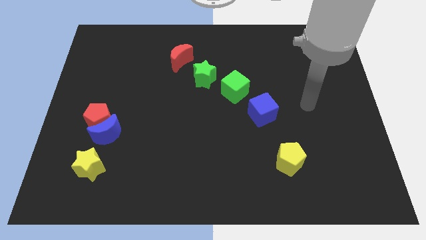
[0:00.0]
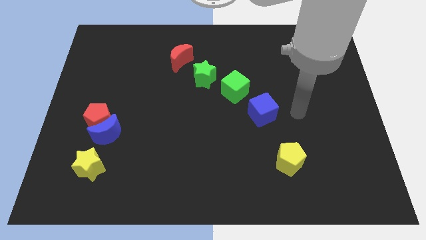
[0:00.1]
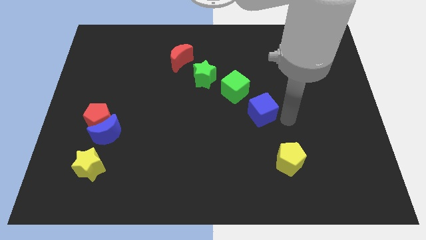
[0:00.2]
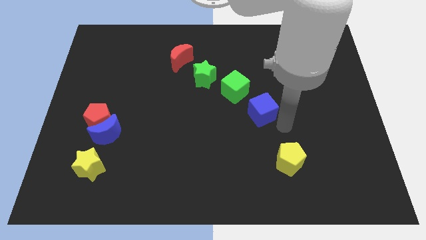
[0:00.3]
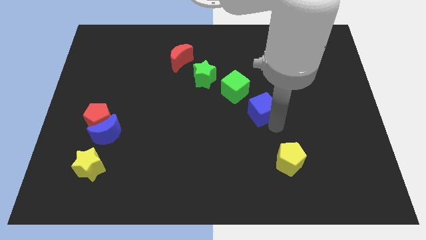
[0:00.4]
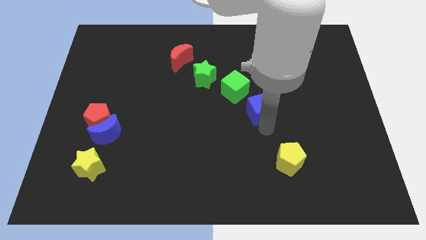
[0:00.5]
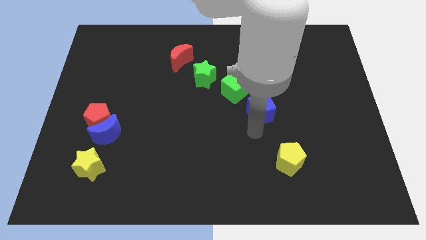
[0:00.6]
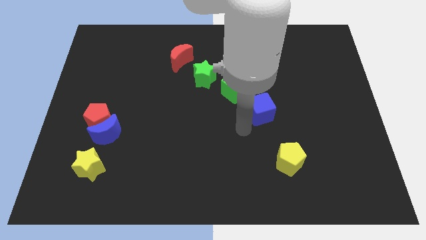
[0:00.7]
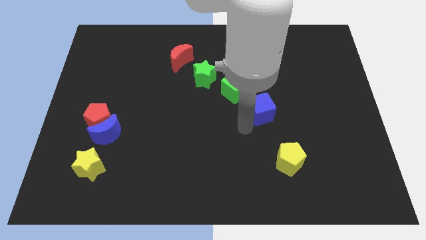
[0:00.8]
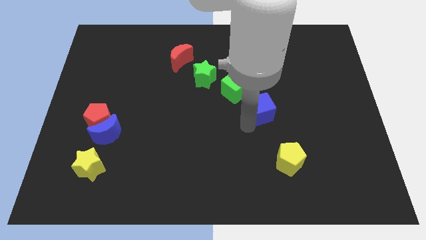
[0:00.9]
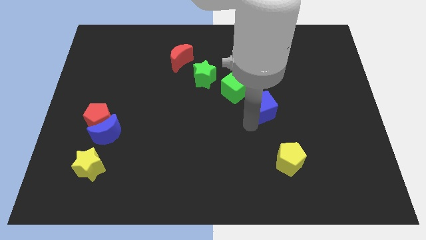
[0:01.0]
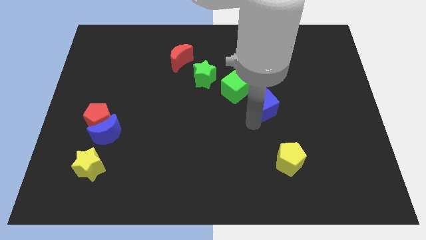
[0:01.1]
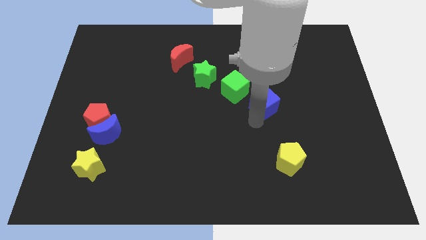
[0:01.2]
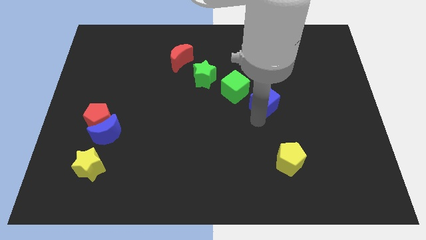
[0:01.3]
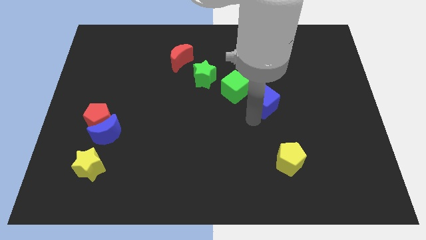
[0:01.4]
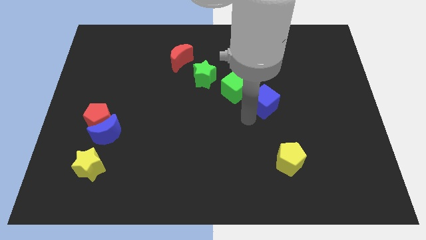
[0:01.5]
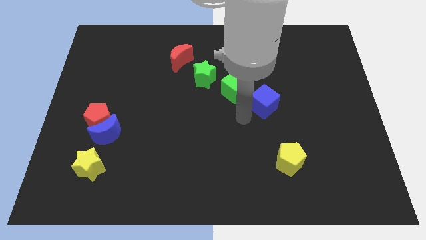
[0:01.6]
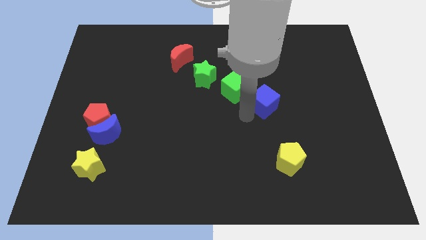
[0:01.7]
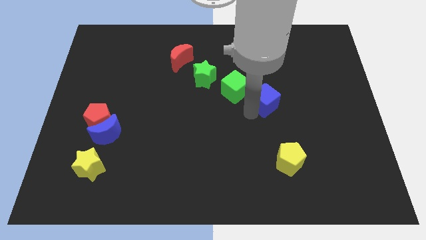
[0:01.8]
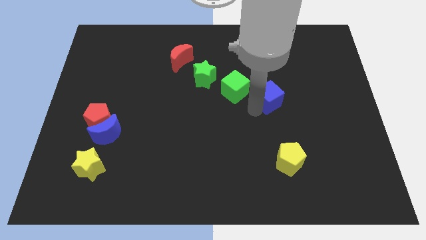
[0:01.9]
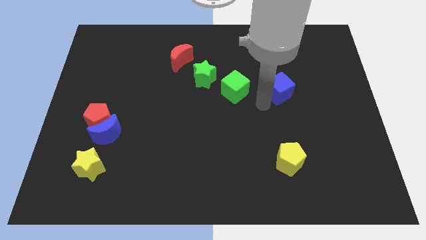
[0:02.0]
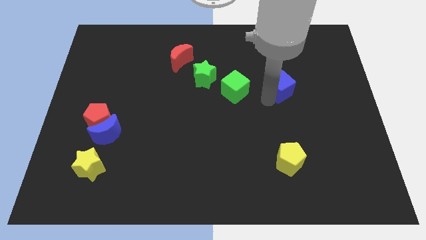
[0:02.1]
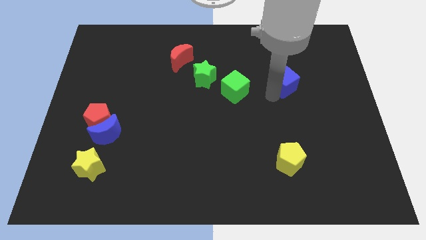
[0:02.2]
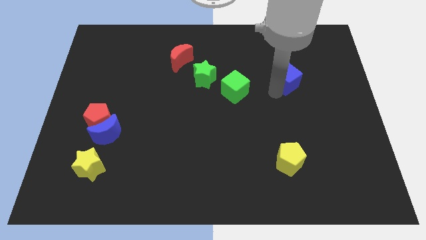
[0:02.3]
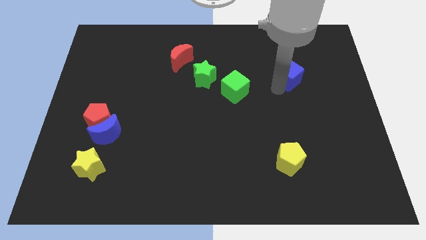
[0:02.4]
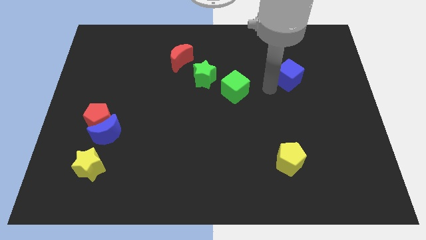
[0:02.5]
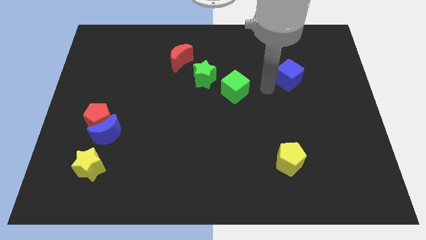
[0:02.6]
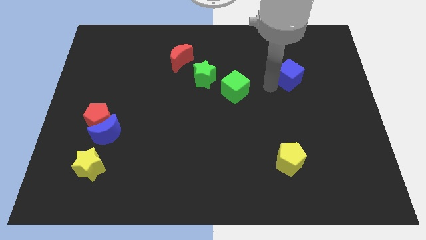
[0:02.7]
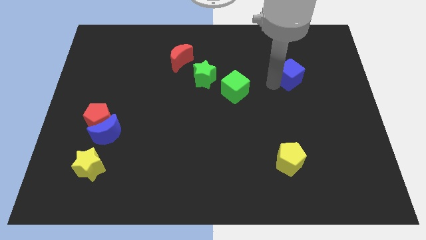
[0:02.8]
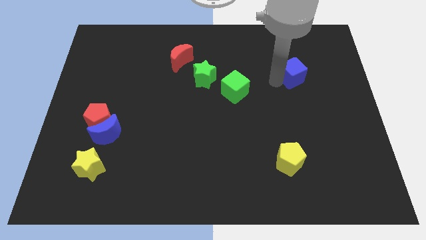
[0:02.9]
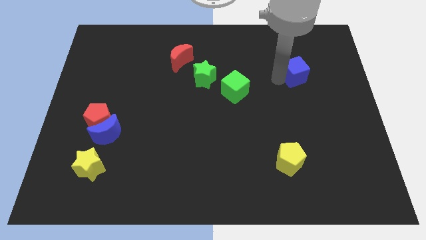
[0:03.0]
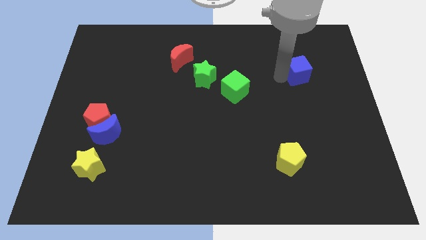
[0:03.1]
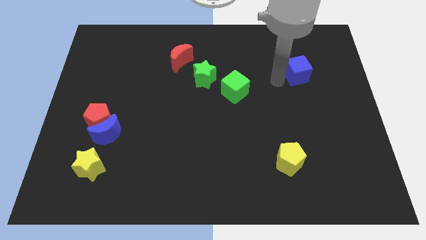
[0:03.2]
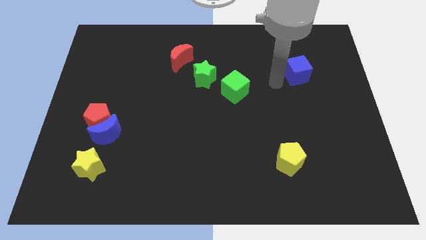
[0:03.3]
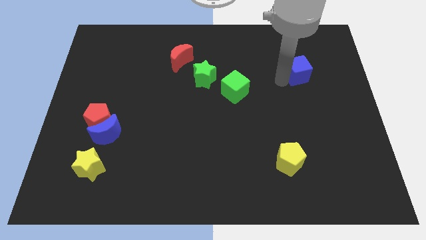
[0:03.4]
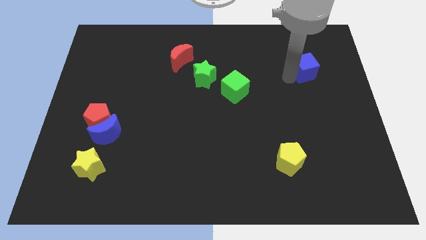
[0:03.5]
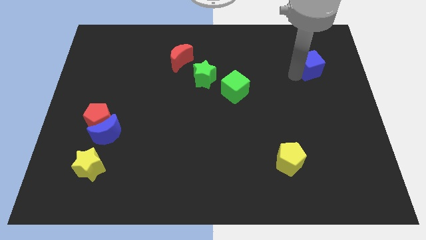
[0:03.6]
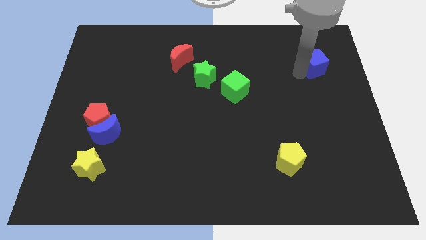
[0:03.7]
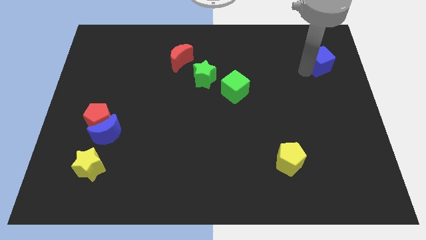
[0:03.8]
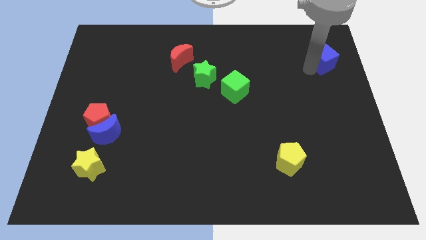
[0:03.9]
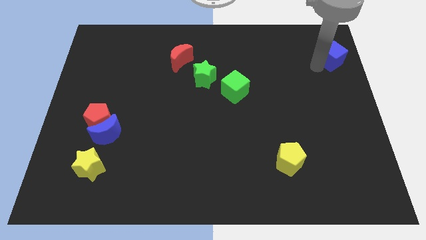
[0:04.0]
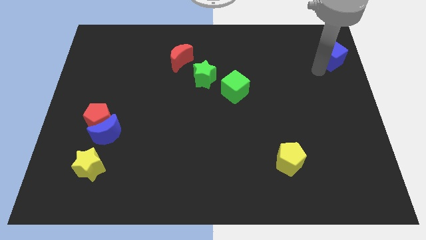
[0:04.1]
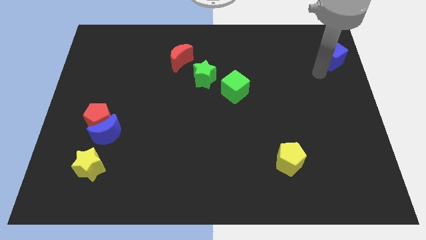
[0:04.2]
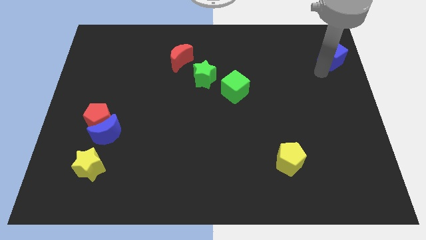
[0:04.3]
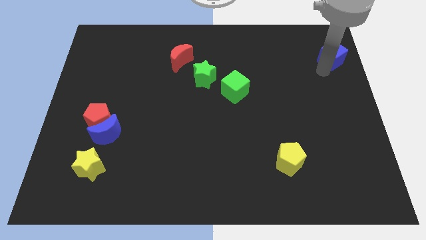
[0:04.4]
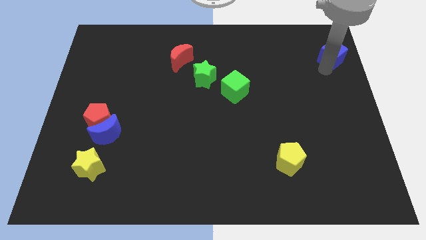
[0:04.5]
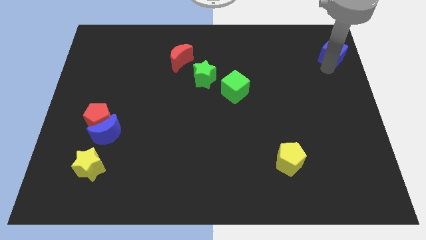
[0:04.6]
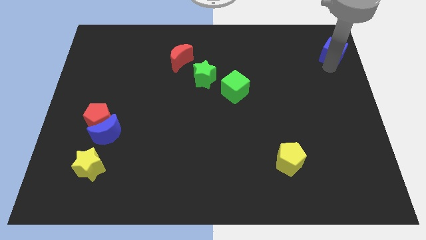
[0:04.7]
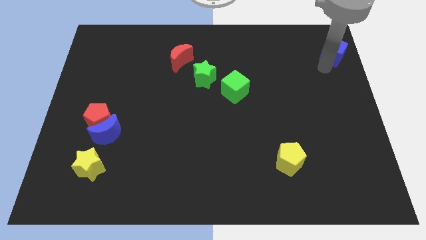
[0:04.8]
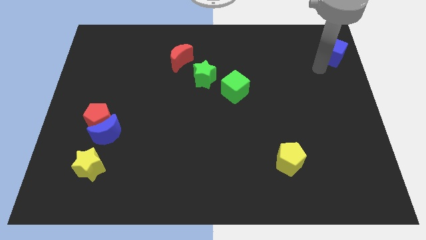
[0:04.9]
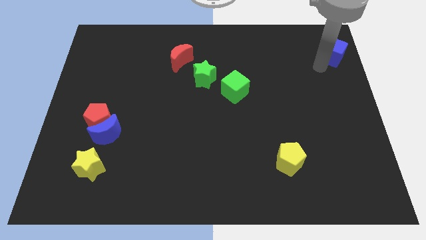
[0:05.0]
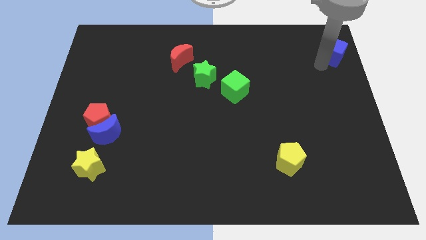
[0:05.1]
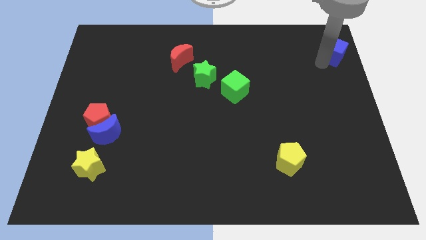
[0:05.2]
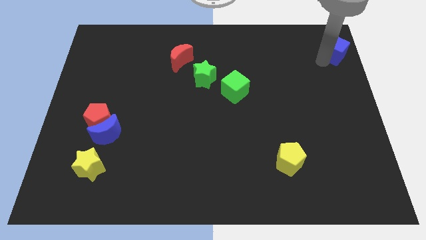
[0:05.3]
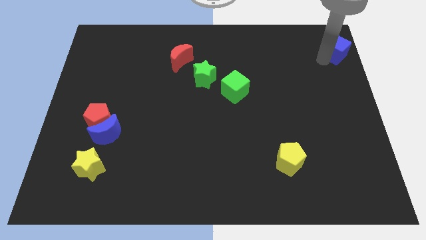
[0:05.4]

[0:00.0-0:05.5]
put the blue cube to the top right of the board

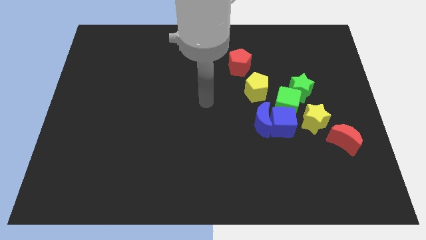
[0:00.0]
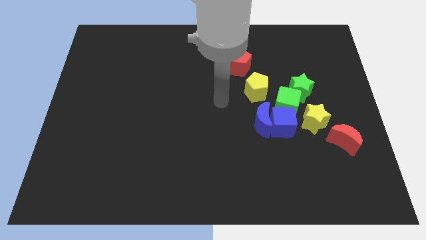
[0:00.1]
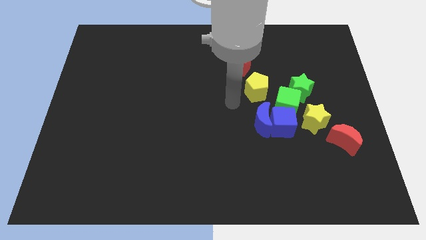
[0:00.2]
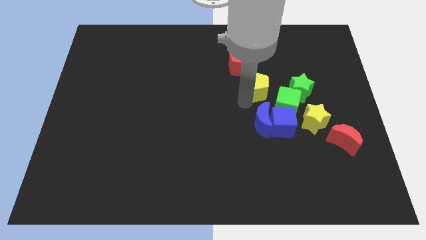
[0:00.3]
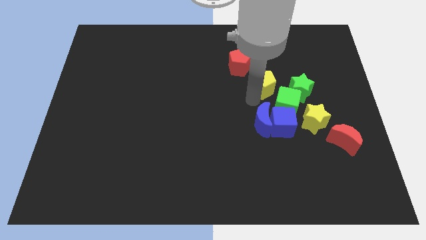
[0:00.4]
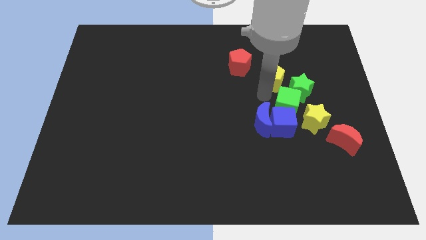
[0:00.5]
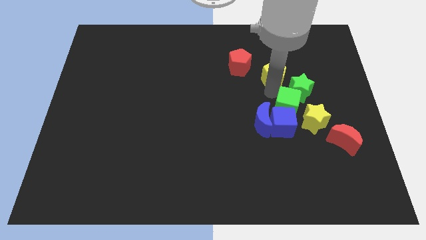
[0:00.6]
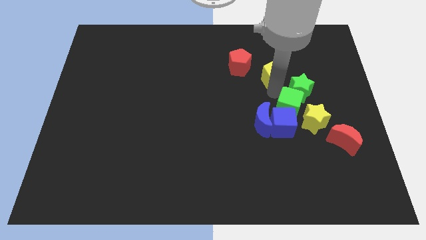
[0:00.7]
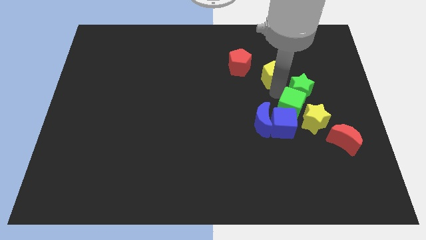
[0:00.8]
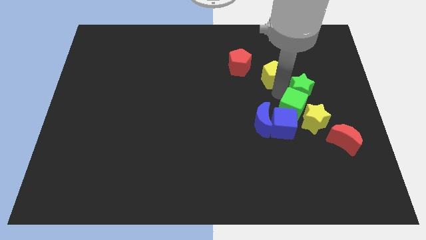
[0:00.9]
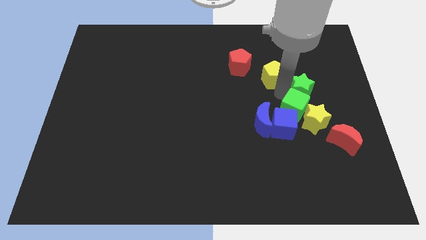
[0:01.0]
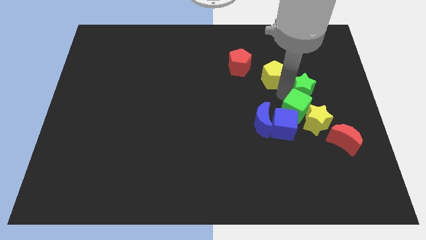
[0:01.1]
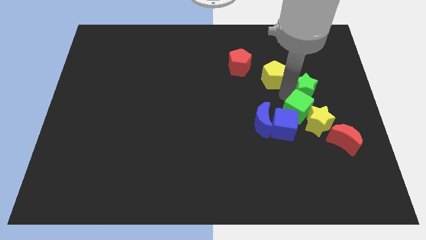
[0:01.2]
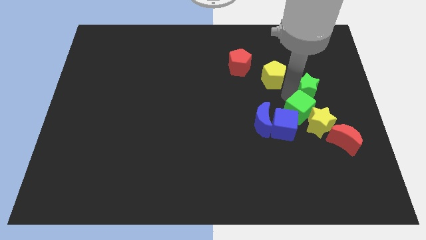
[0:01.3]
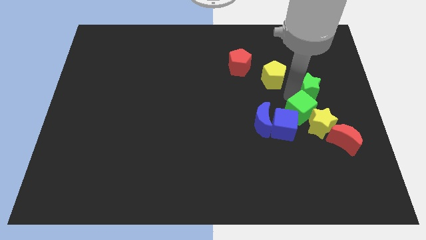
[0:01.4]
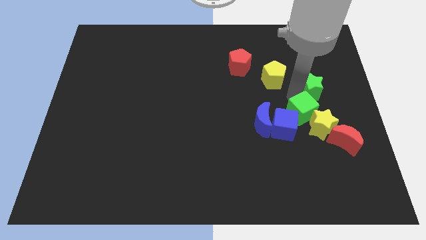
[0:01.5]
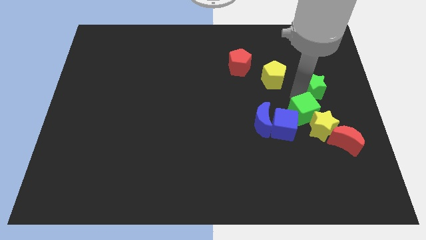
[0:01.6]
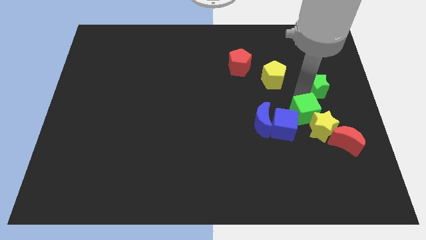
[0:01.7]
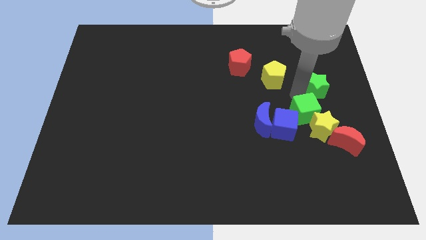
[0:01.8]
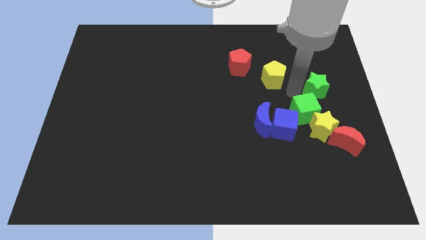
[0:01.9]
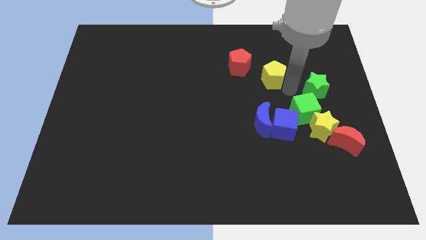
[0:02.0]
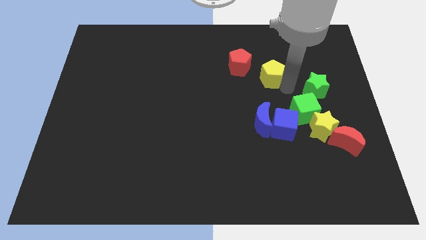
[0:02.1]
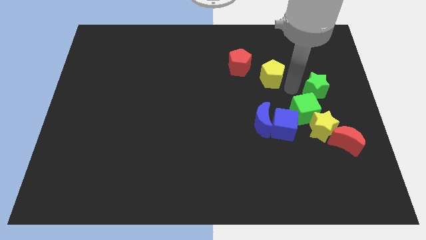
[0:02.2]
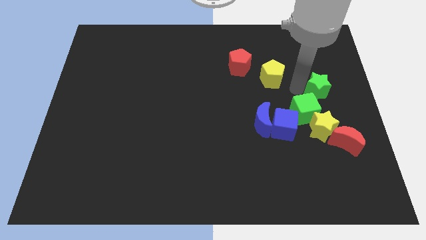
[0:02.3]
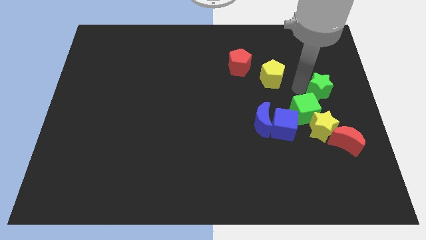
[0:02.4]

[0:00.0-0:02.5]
slide the green star to the right side of the board
